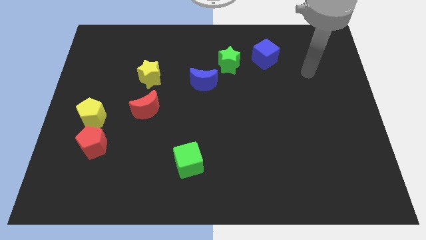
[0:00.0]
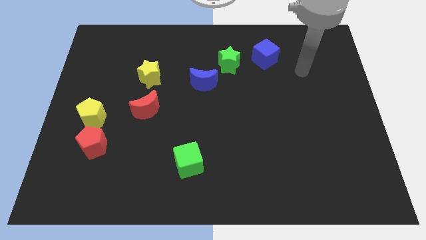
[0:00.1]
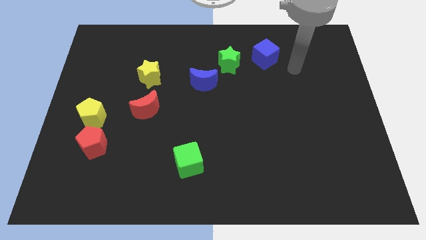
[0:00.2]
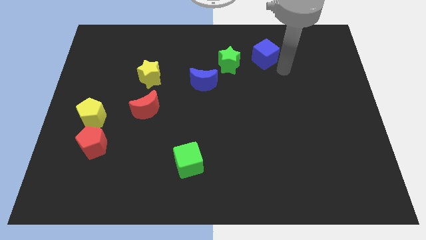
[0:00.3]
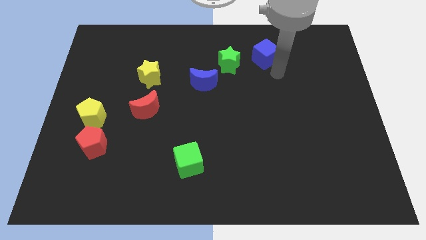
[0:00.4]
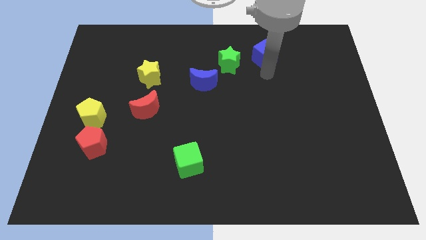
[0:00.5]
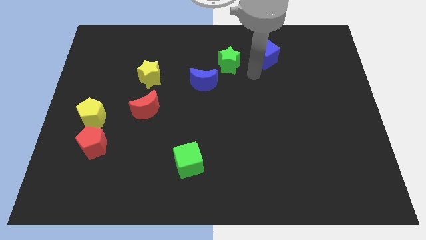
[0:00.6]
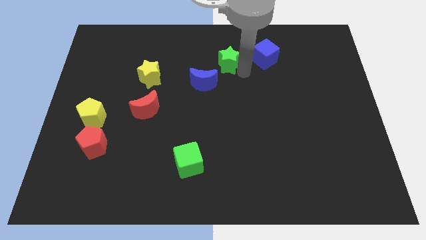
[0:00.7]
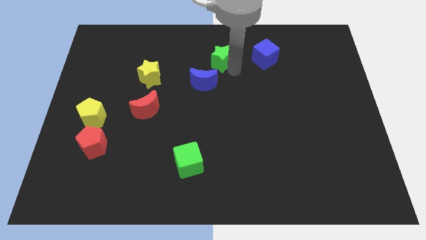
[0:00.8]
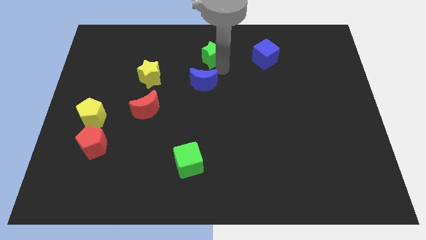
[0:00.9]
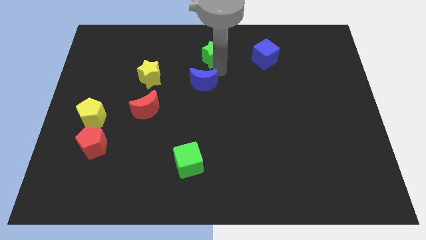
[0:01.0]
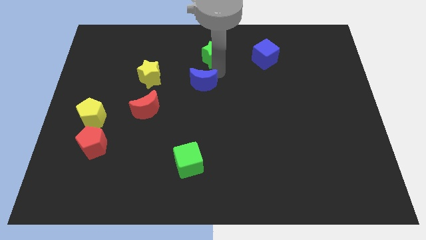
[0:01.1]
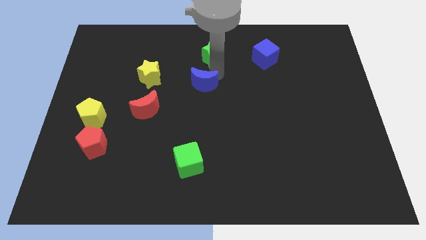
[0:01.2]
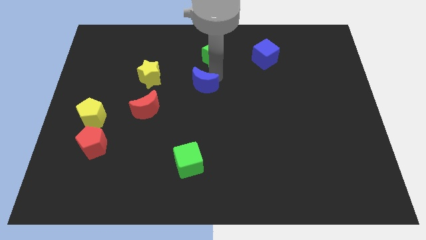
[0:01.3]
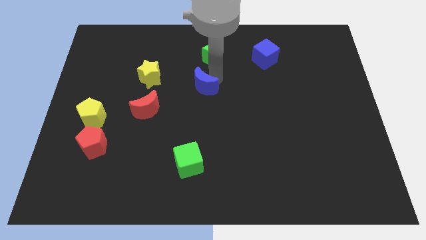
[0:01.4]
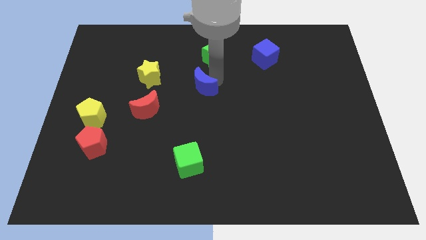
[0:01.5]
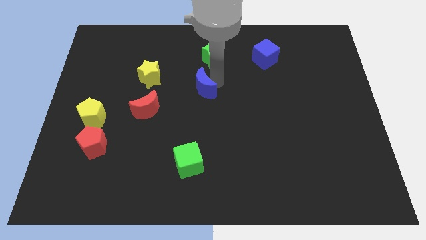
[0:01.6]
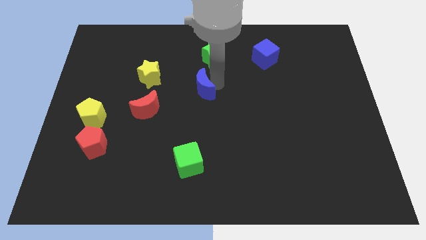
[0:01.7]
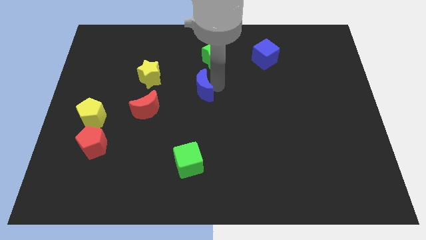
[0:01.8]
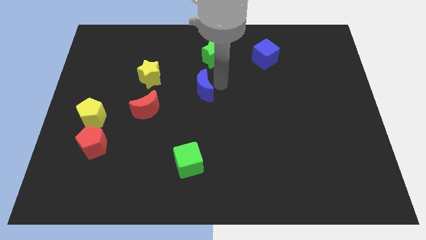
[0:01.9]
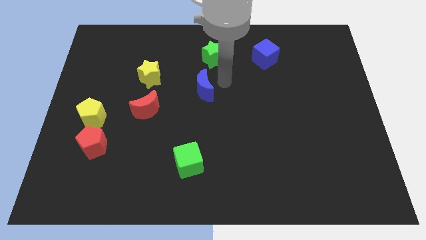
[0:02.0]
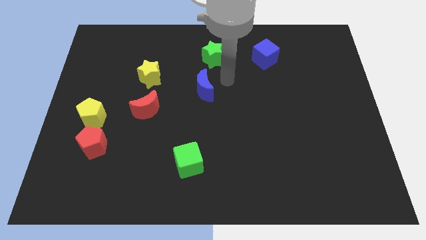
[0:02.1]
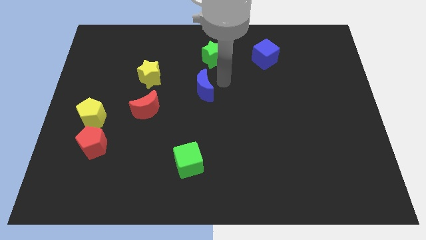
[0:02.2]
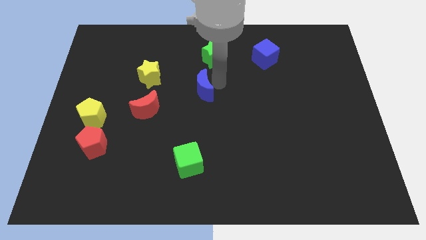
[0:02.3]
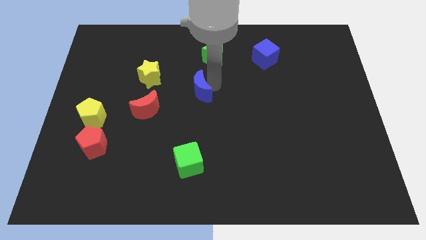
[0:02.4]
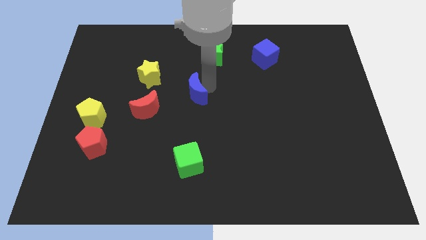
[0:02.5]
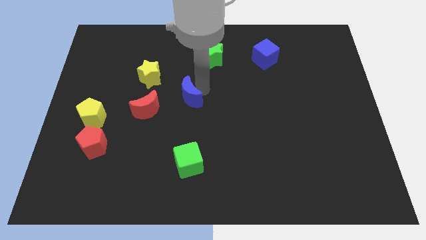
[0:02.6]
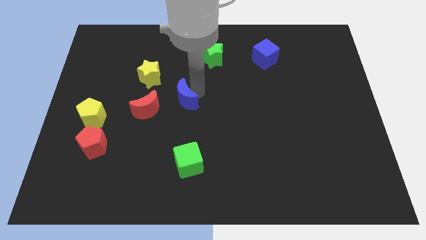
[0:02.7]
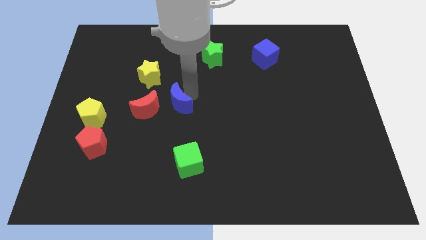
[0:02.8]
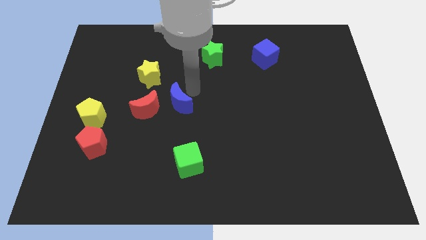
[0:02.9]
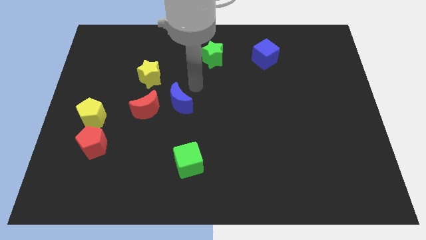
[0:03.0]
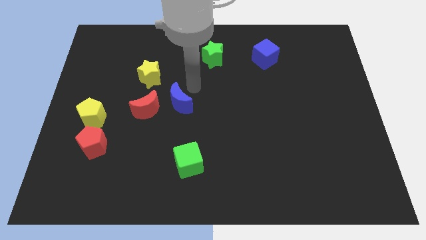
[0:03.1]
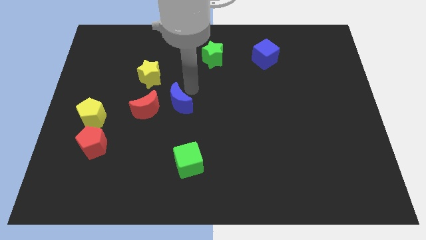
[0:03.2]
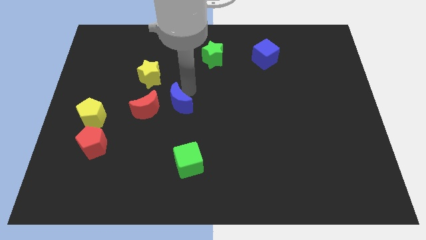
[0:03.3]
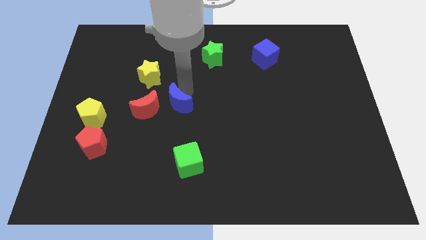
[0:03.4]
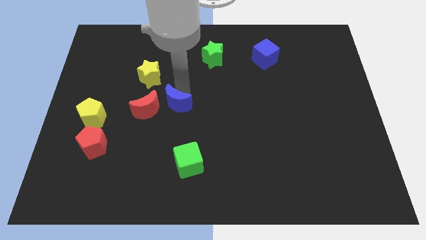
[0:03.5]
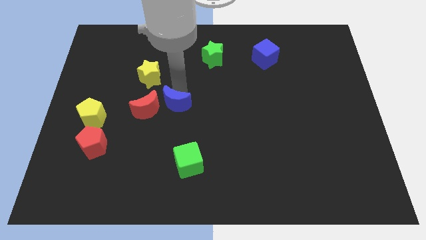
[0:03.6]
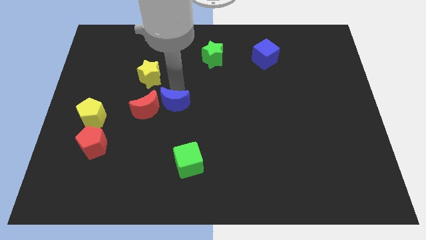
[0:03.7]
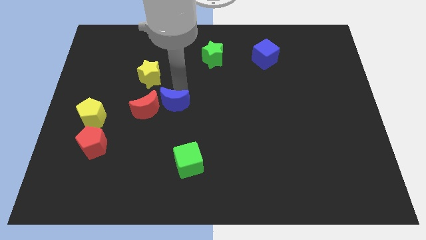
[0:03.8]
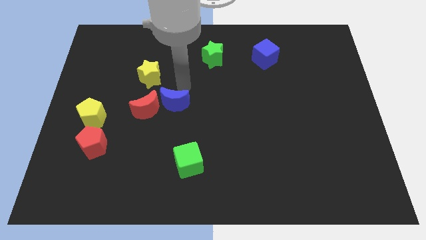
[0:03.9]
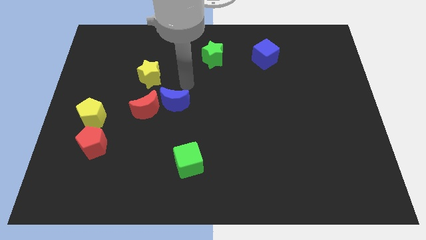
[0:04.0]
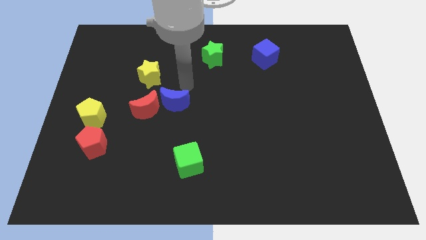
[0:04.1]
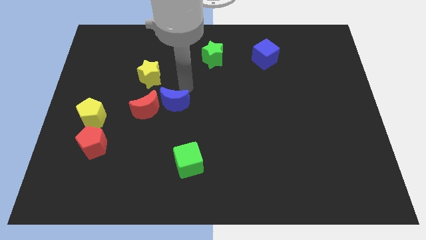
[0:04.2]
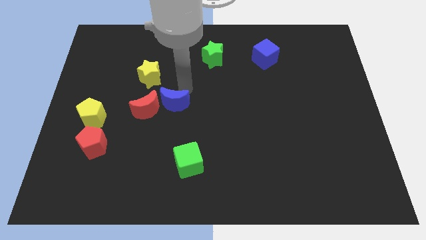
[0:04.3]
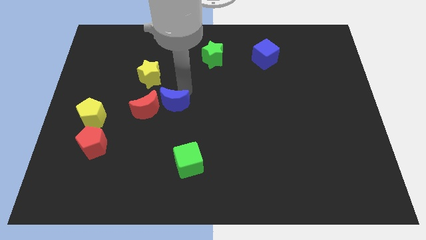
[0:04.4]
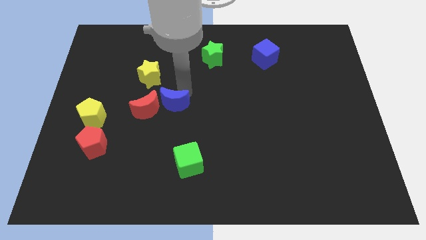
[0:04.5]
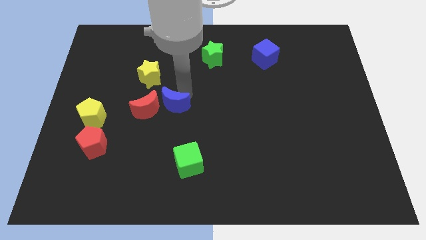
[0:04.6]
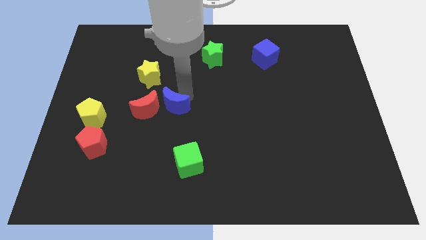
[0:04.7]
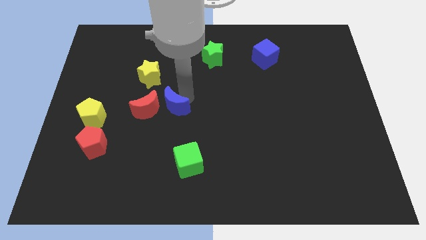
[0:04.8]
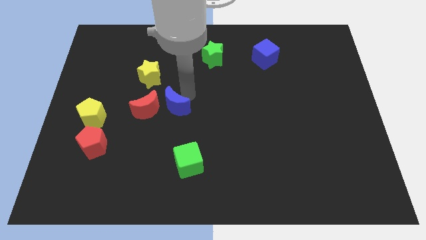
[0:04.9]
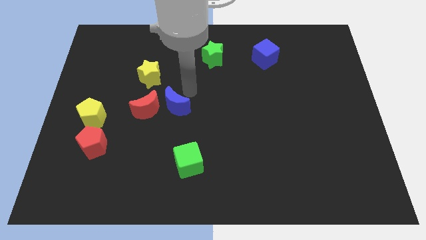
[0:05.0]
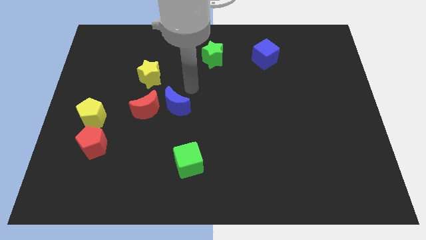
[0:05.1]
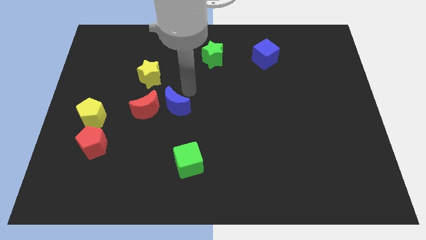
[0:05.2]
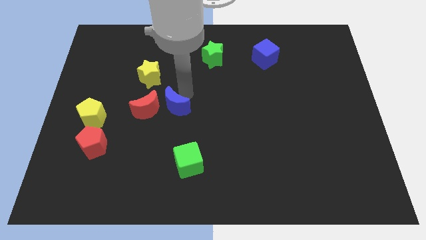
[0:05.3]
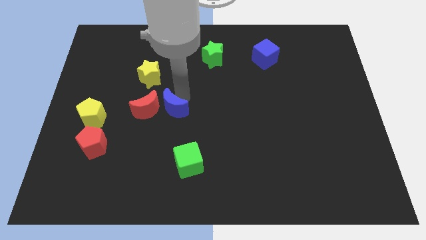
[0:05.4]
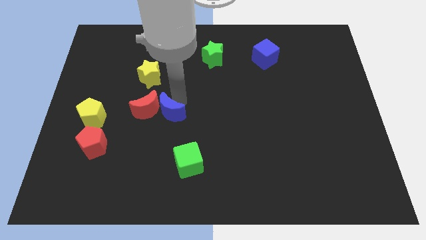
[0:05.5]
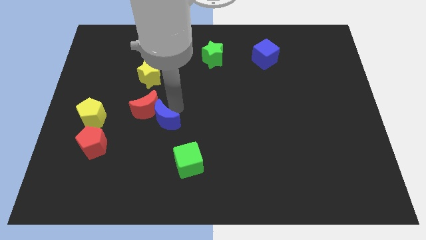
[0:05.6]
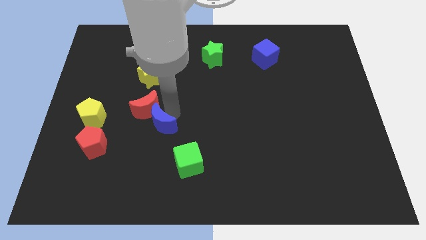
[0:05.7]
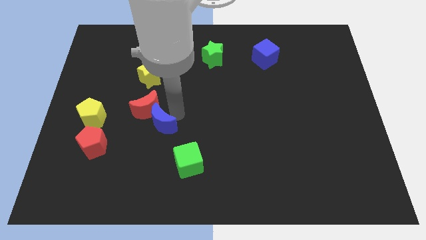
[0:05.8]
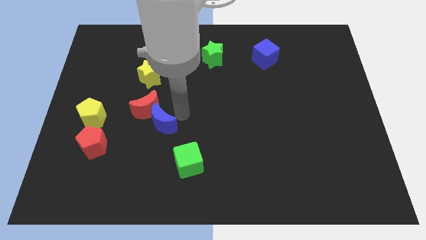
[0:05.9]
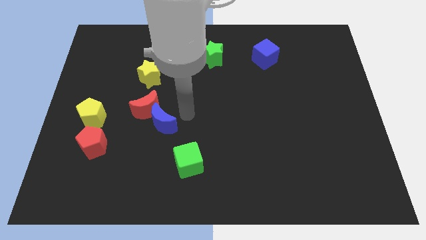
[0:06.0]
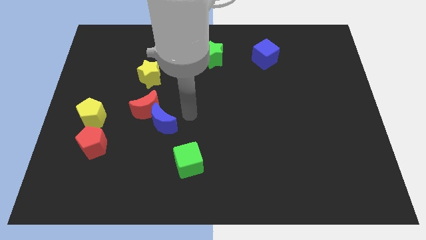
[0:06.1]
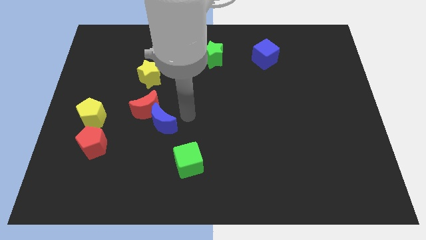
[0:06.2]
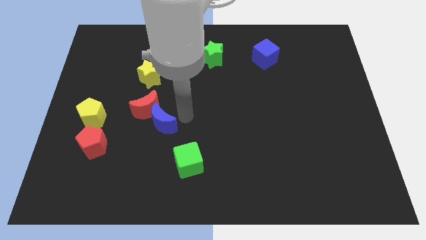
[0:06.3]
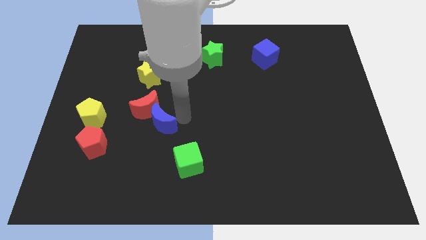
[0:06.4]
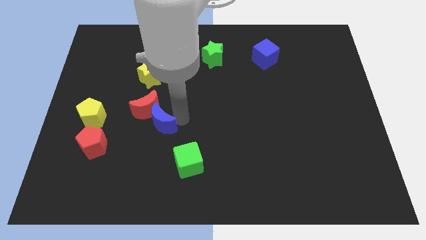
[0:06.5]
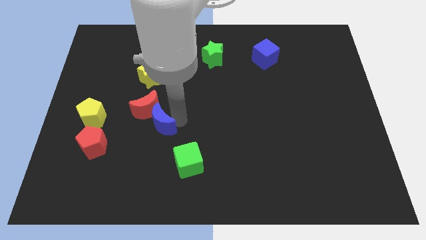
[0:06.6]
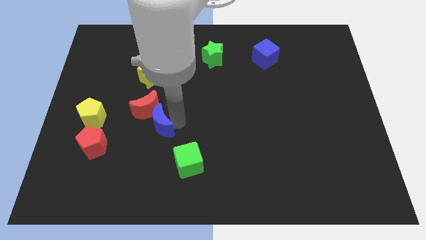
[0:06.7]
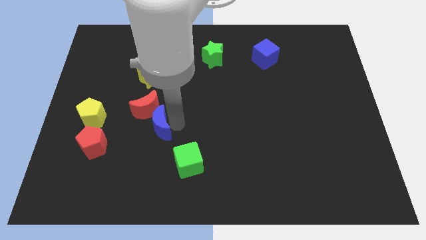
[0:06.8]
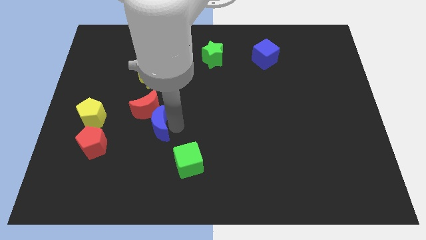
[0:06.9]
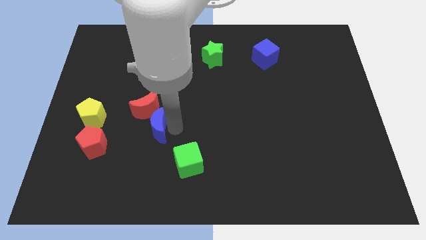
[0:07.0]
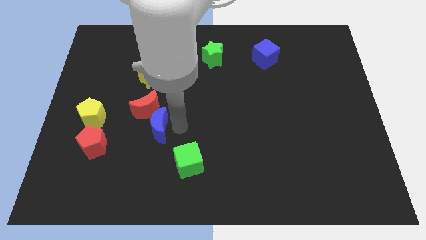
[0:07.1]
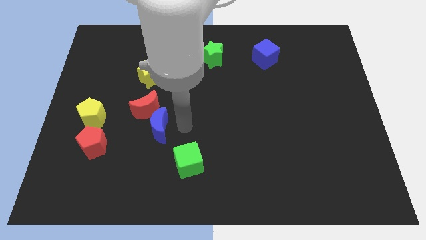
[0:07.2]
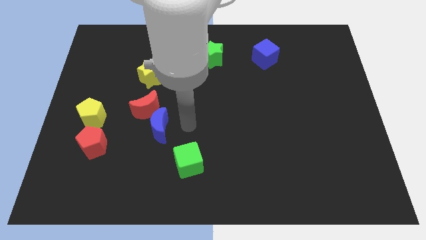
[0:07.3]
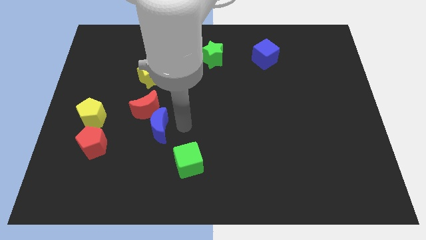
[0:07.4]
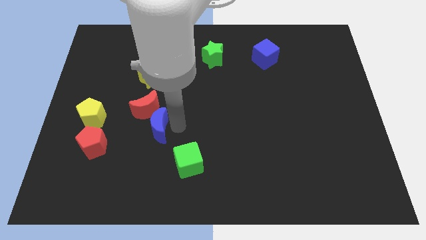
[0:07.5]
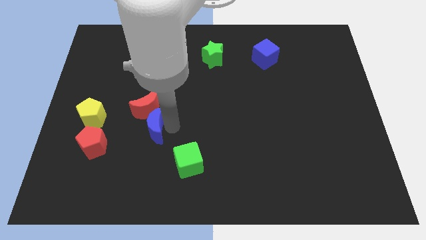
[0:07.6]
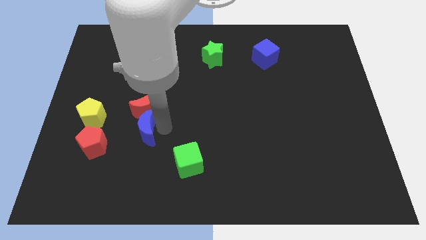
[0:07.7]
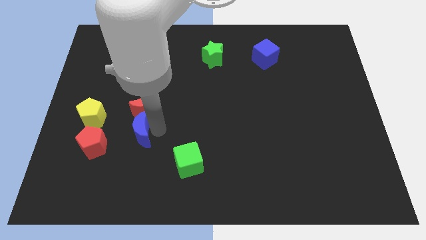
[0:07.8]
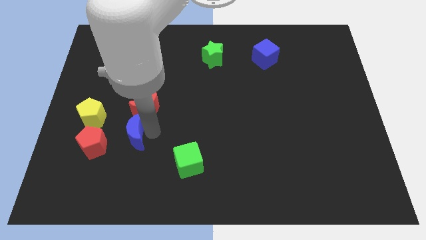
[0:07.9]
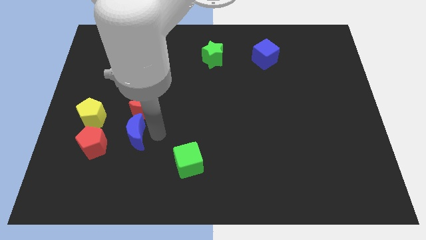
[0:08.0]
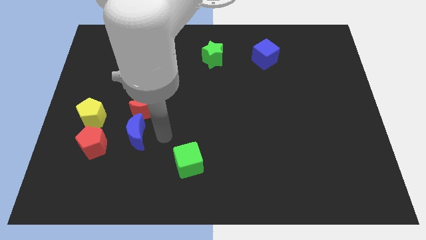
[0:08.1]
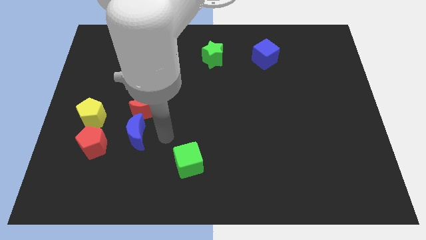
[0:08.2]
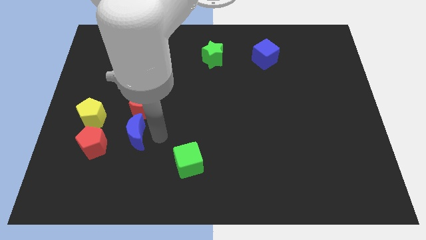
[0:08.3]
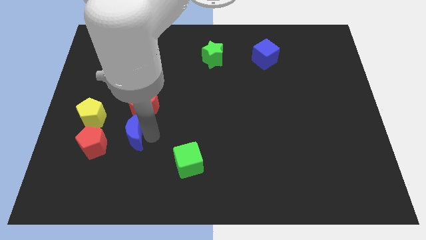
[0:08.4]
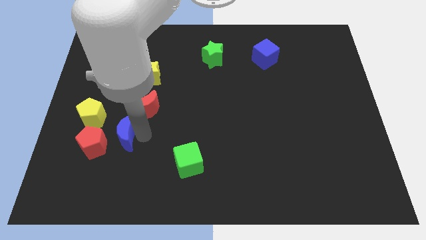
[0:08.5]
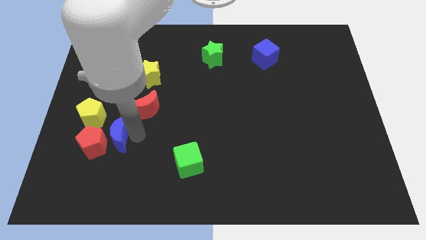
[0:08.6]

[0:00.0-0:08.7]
put the blue moon to the red pentagon
